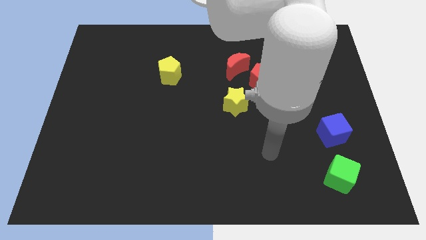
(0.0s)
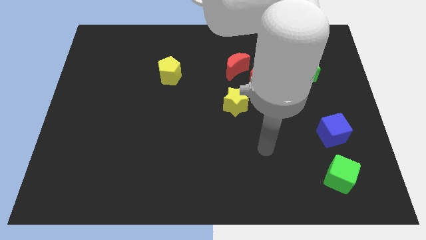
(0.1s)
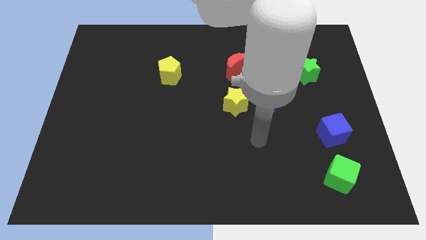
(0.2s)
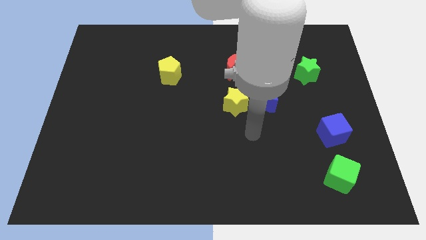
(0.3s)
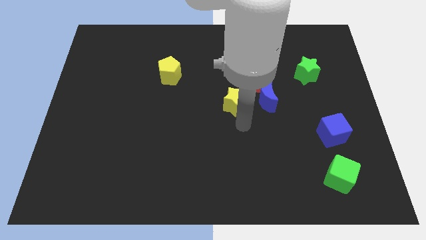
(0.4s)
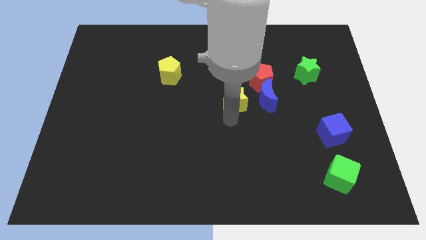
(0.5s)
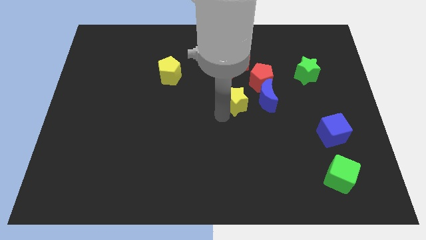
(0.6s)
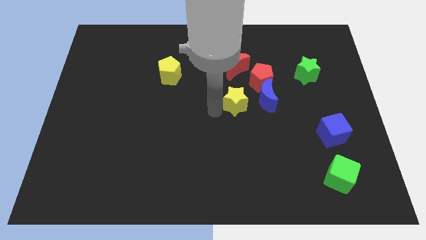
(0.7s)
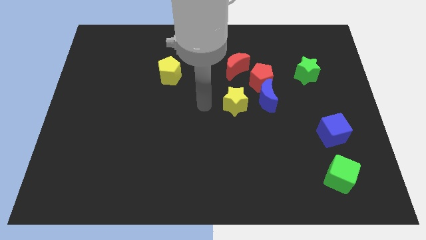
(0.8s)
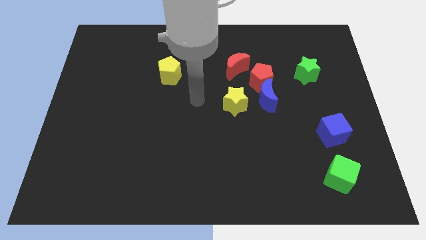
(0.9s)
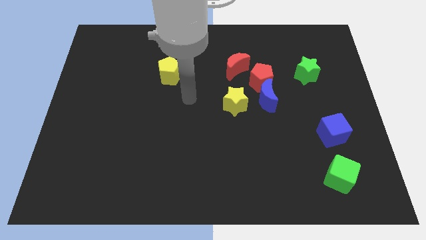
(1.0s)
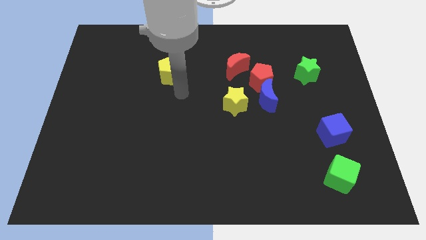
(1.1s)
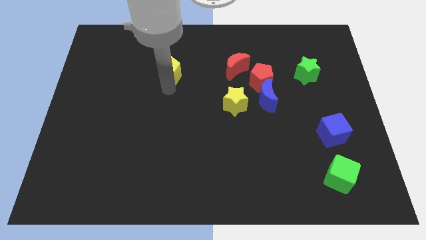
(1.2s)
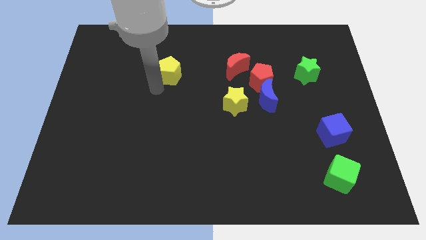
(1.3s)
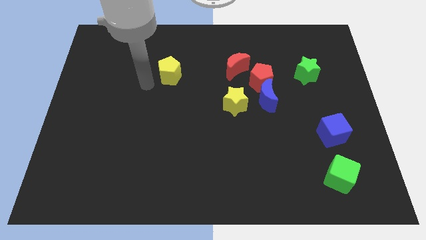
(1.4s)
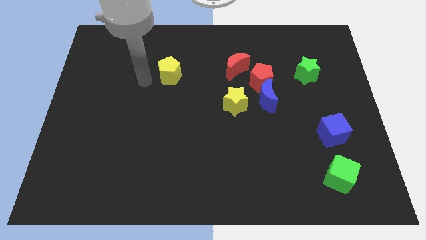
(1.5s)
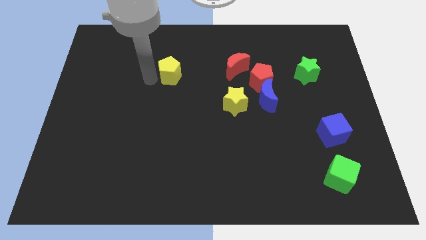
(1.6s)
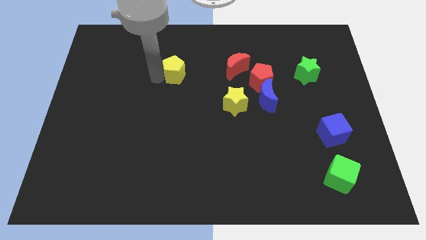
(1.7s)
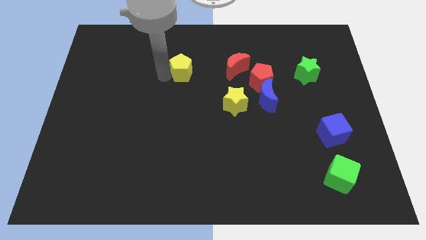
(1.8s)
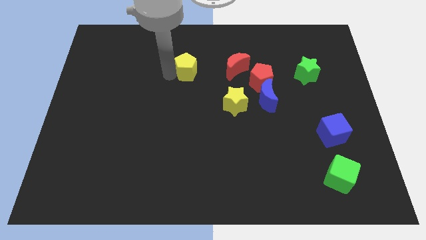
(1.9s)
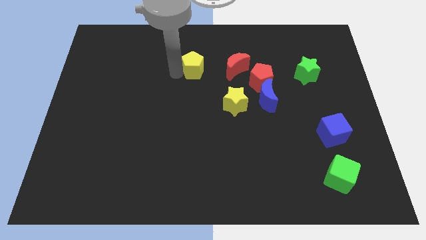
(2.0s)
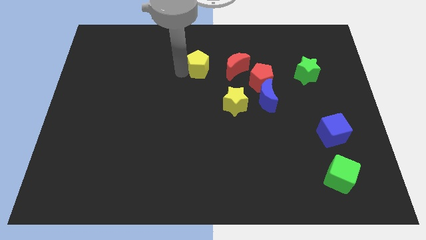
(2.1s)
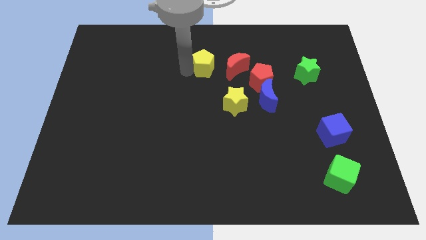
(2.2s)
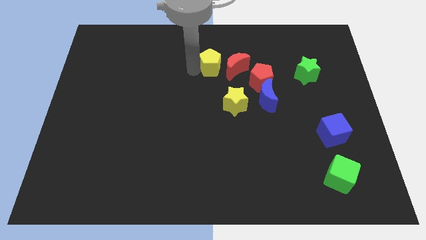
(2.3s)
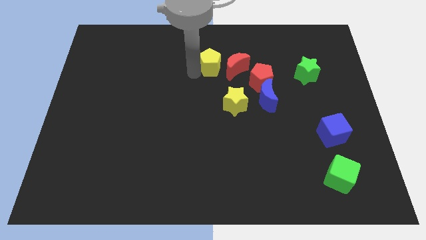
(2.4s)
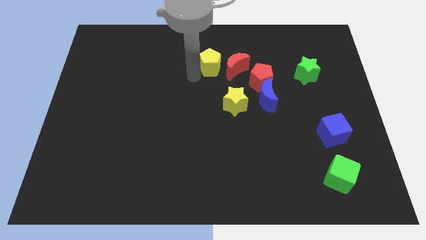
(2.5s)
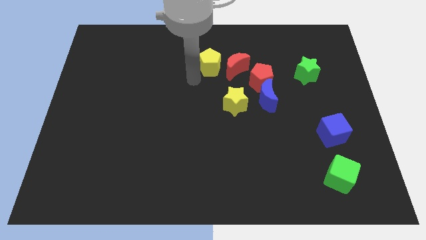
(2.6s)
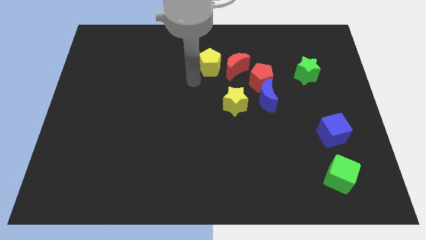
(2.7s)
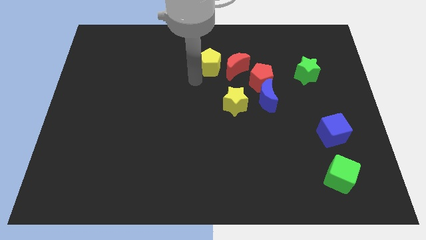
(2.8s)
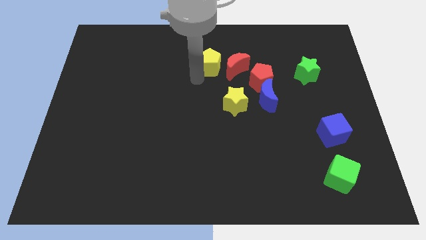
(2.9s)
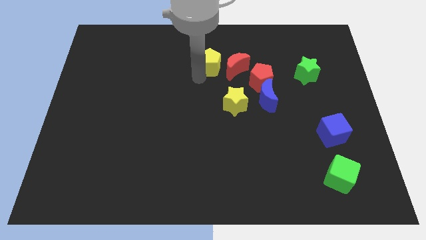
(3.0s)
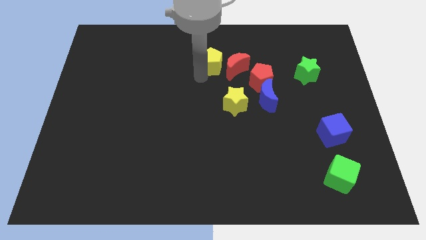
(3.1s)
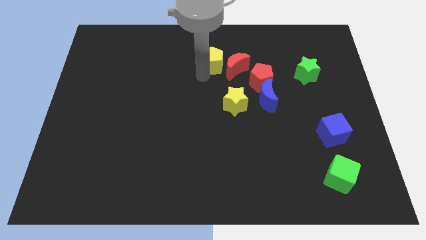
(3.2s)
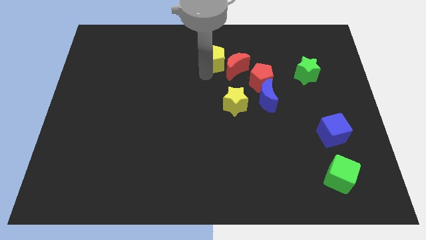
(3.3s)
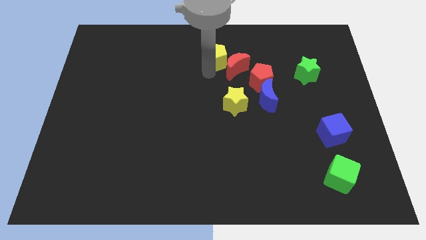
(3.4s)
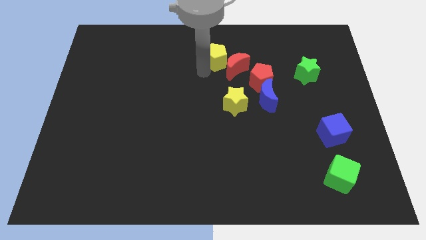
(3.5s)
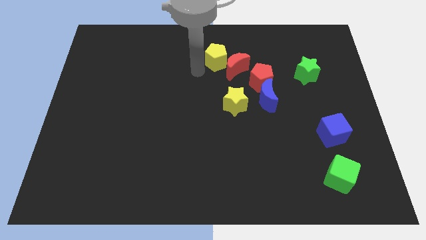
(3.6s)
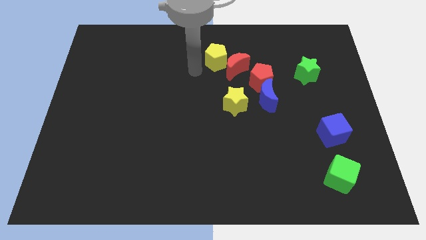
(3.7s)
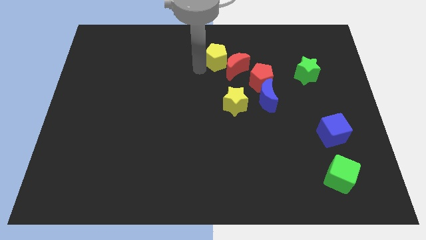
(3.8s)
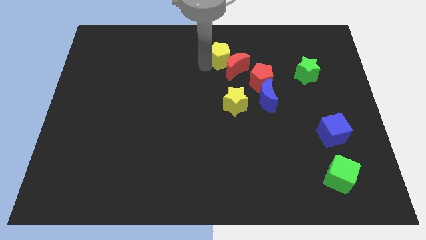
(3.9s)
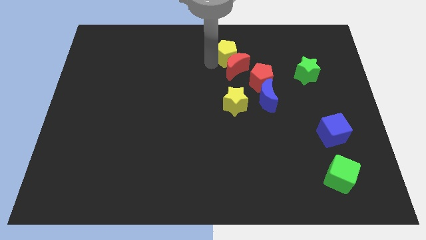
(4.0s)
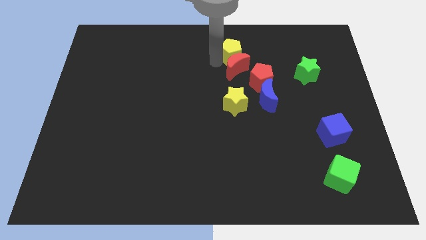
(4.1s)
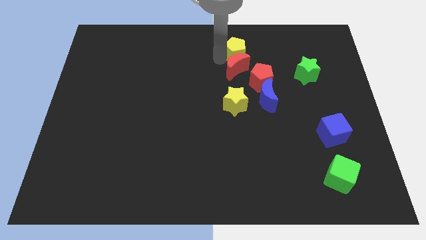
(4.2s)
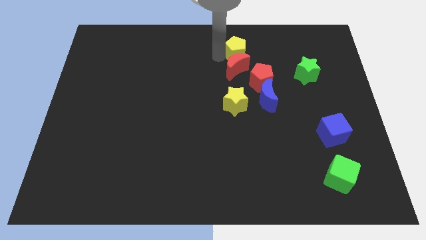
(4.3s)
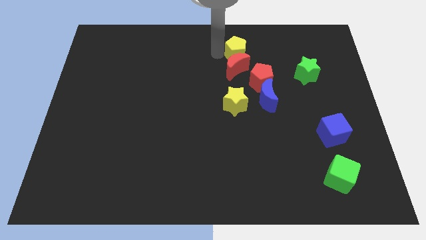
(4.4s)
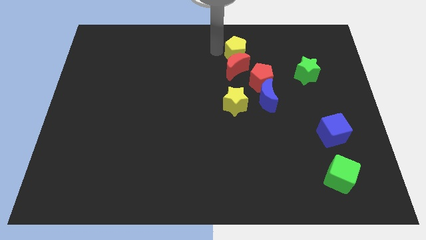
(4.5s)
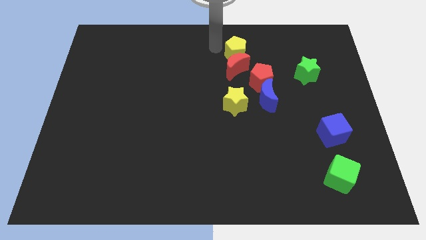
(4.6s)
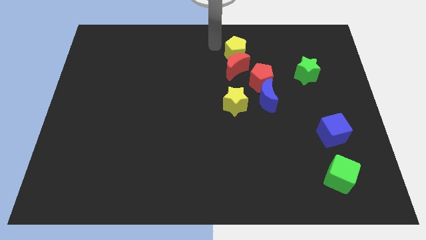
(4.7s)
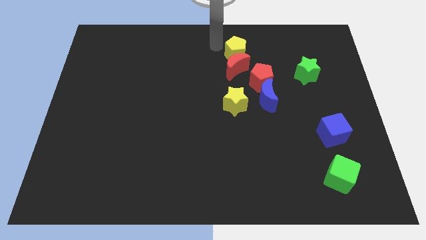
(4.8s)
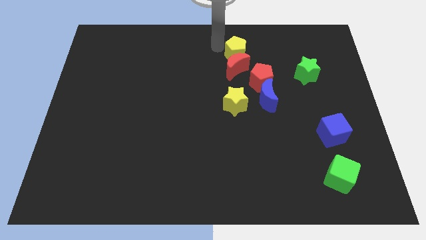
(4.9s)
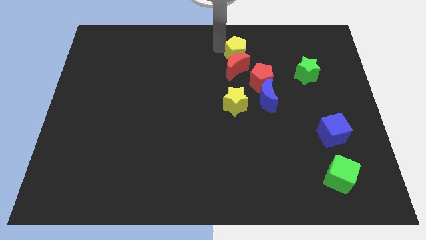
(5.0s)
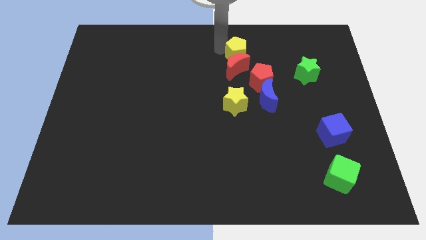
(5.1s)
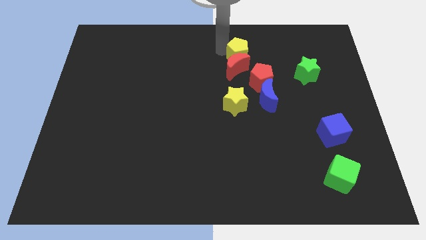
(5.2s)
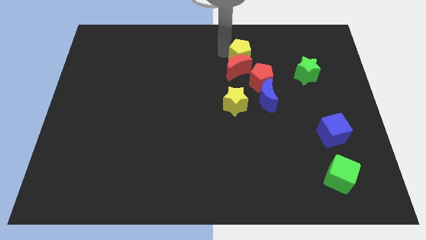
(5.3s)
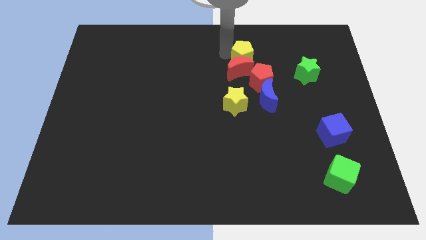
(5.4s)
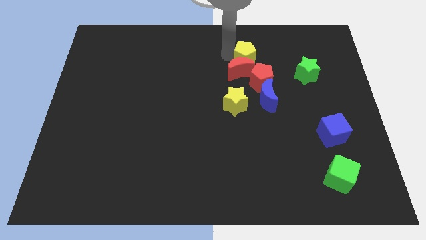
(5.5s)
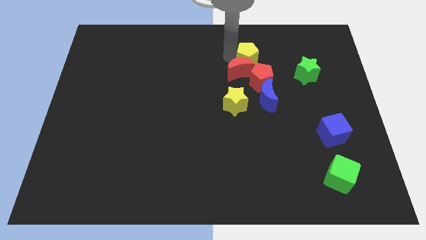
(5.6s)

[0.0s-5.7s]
push the yellow pentagon to the top side of the blue moon
